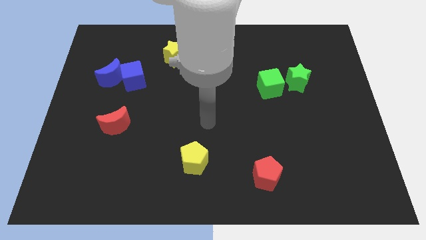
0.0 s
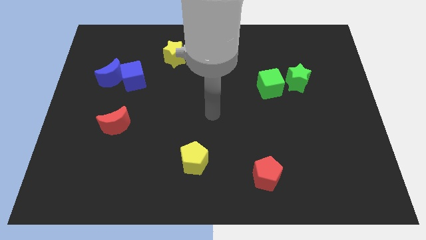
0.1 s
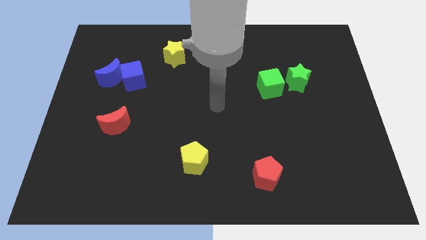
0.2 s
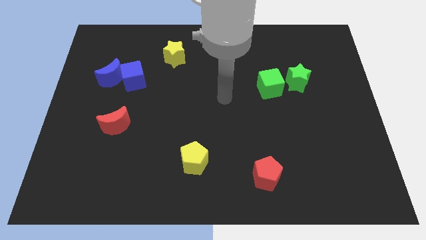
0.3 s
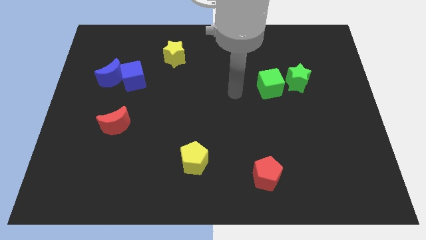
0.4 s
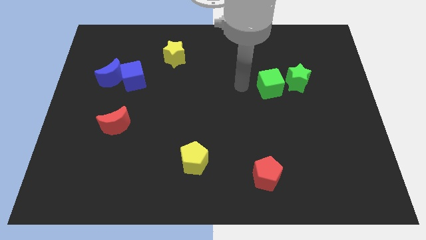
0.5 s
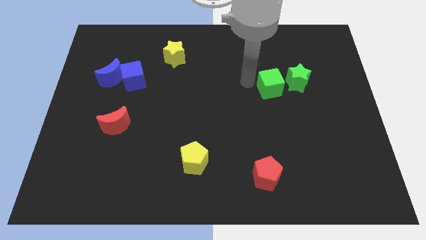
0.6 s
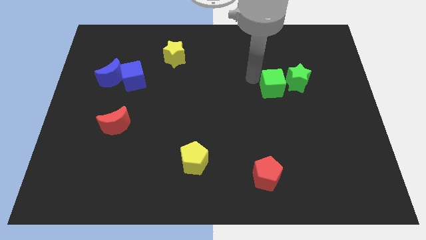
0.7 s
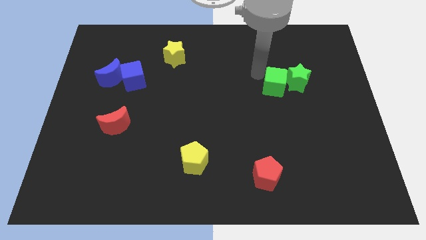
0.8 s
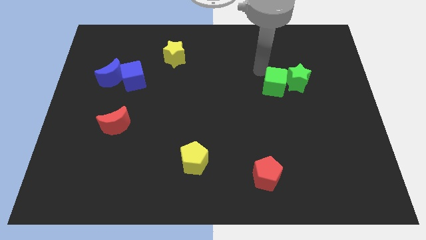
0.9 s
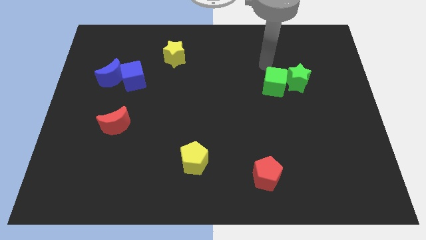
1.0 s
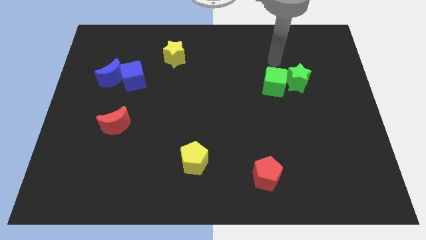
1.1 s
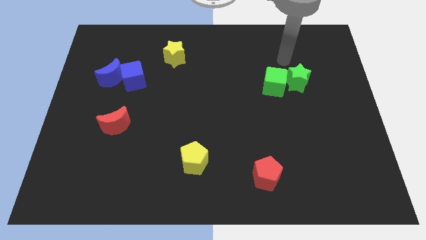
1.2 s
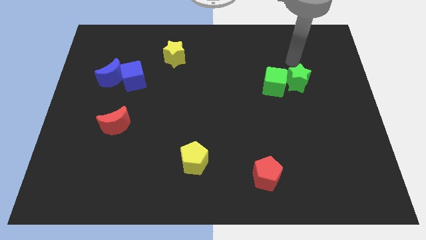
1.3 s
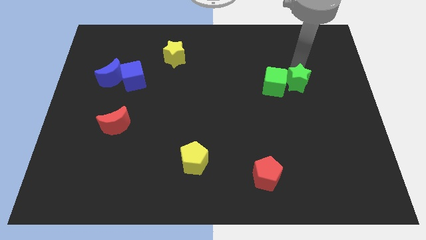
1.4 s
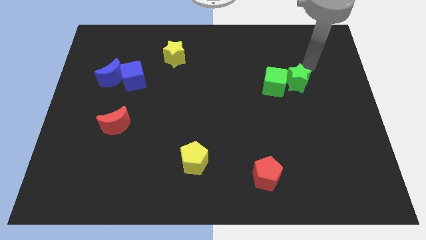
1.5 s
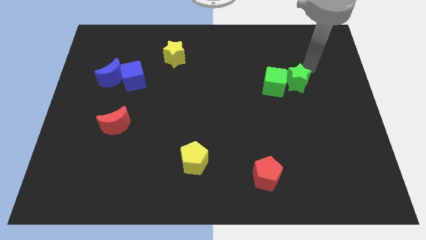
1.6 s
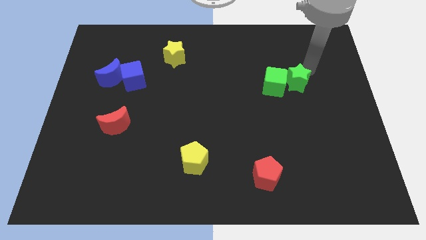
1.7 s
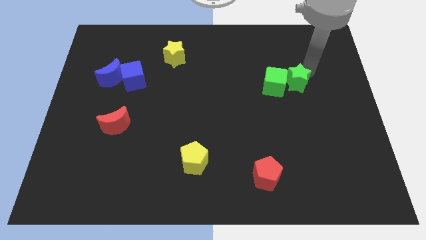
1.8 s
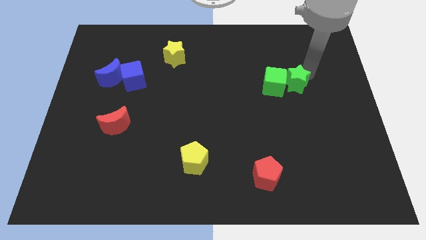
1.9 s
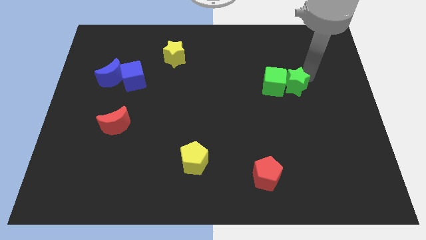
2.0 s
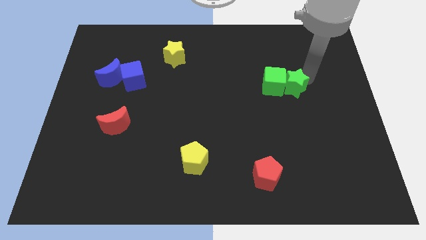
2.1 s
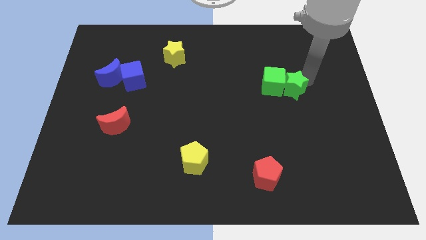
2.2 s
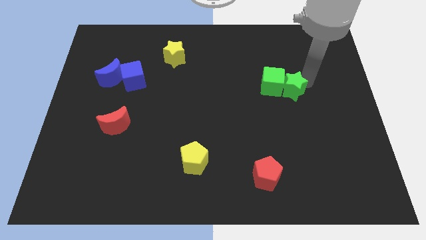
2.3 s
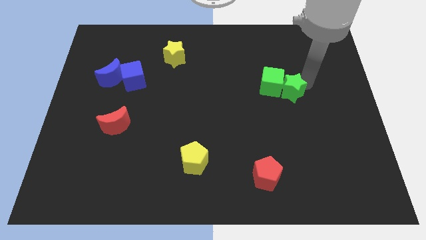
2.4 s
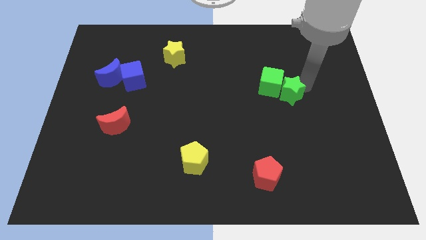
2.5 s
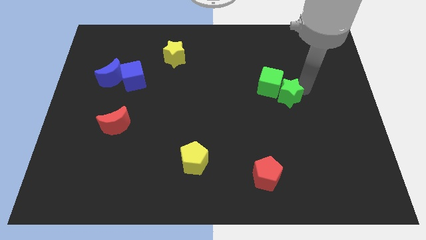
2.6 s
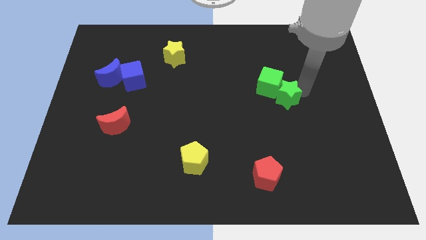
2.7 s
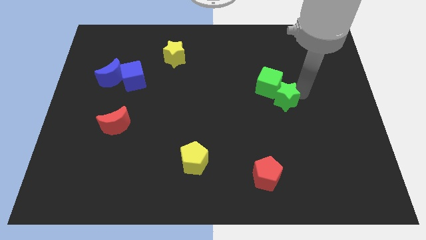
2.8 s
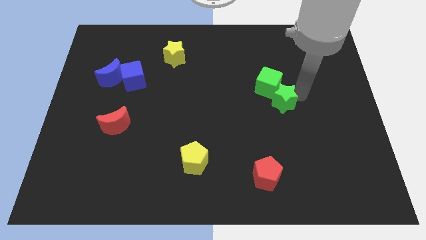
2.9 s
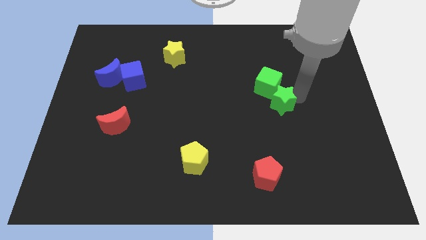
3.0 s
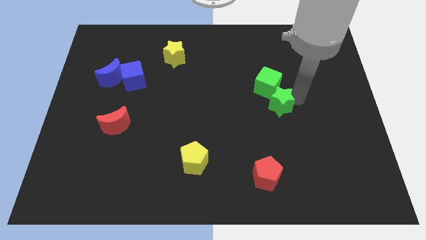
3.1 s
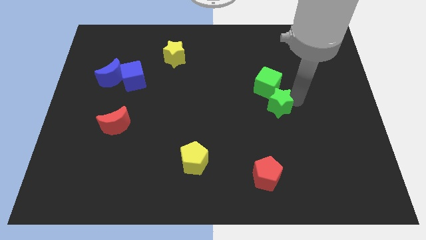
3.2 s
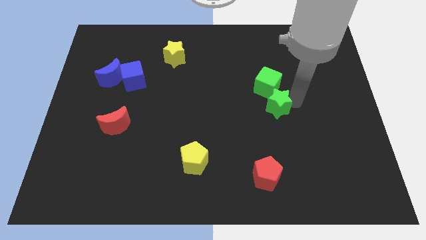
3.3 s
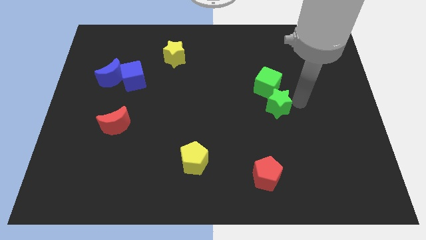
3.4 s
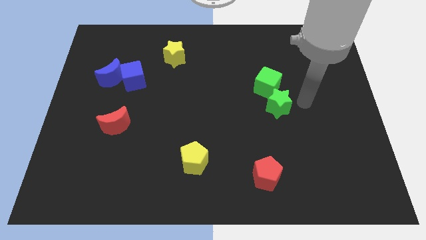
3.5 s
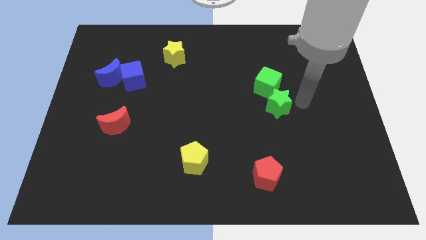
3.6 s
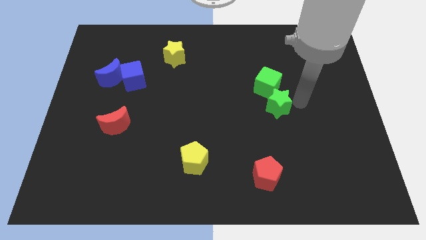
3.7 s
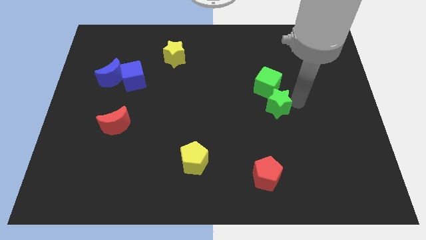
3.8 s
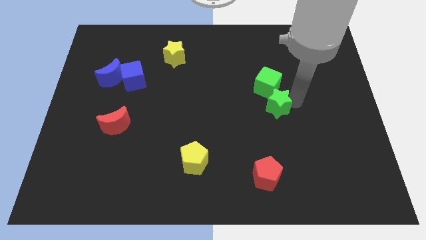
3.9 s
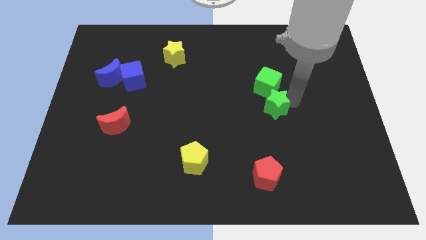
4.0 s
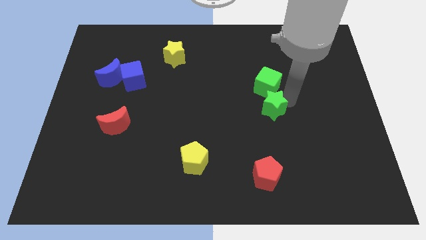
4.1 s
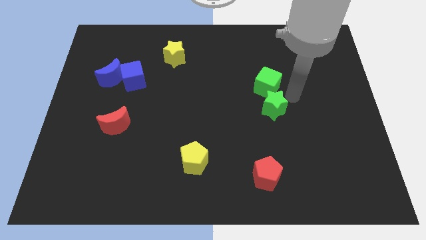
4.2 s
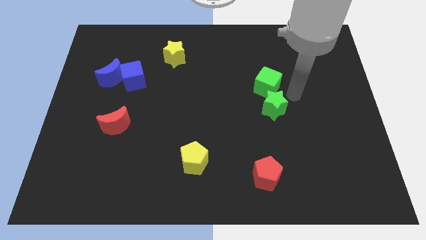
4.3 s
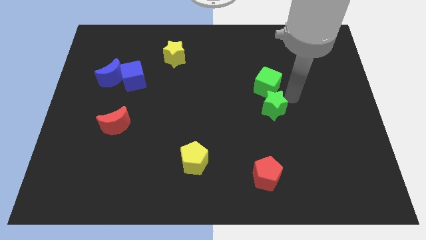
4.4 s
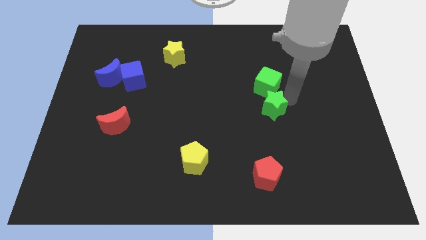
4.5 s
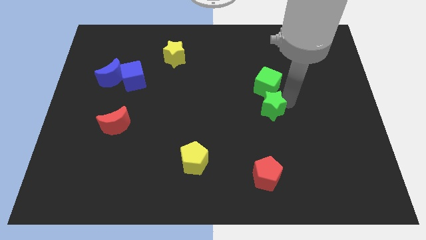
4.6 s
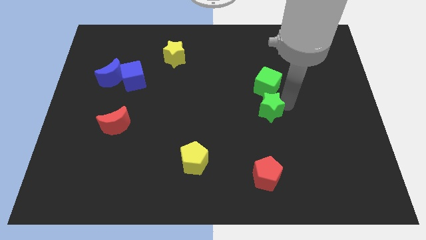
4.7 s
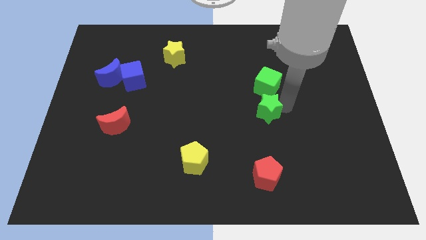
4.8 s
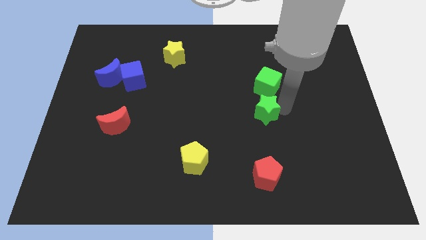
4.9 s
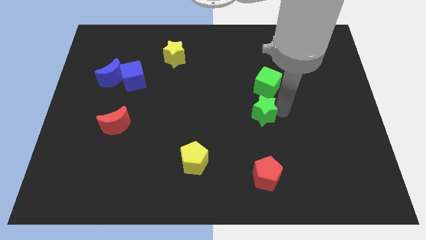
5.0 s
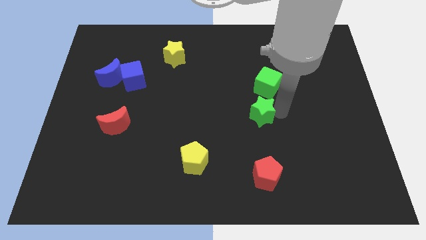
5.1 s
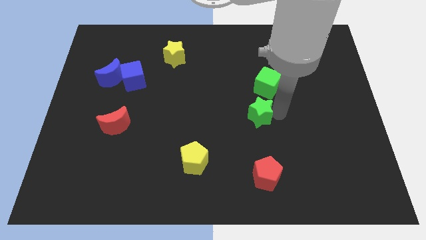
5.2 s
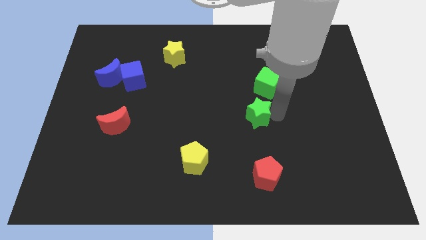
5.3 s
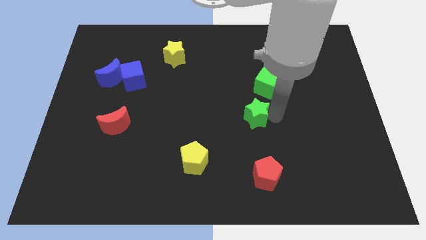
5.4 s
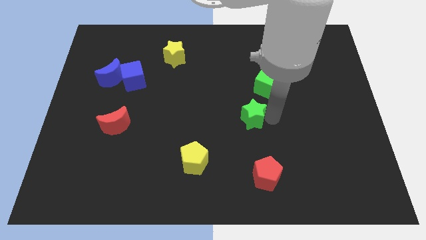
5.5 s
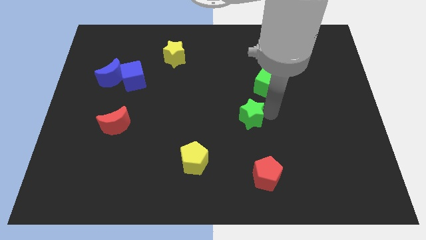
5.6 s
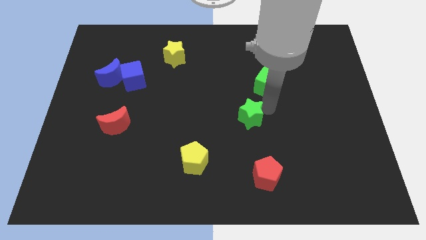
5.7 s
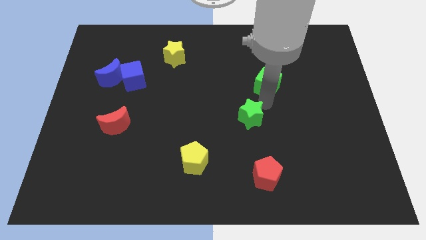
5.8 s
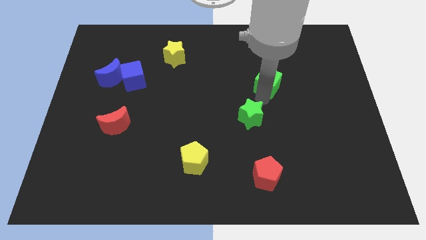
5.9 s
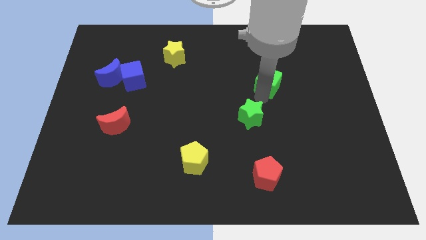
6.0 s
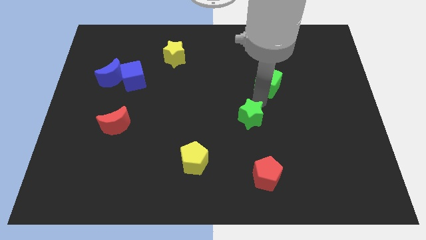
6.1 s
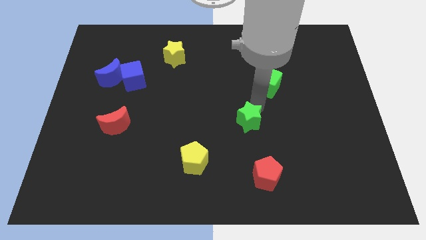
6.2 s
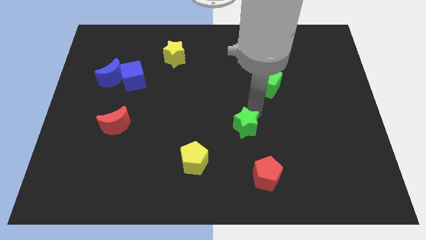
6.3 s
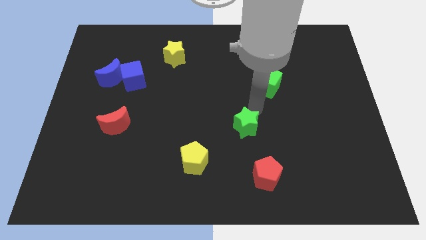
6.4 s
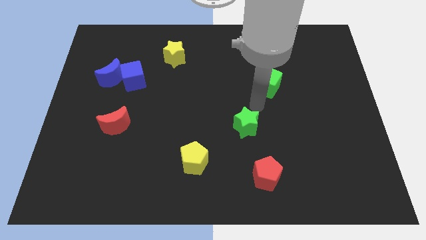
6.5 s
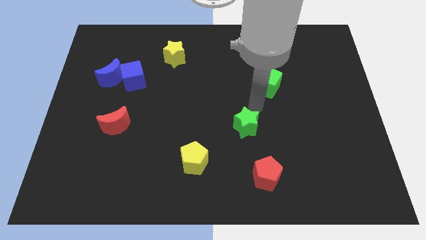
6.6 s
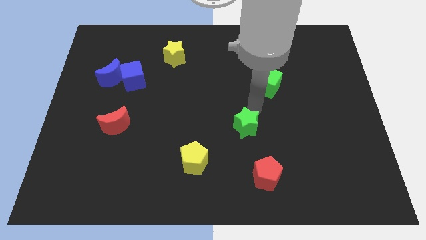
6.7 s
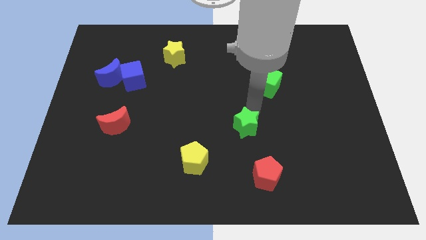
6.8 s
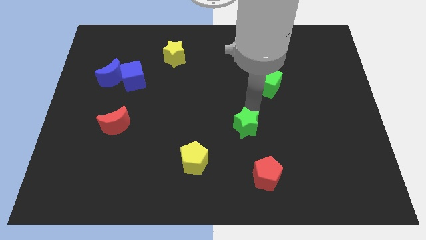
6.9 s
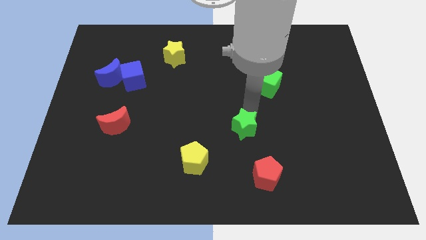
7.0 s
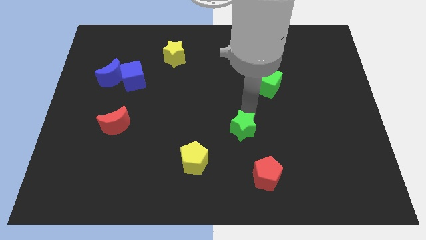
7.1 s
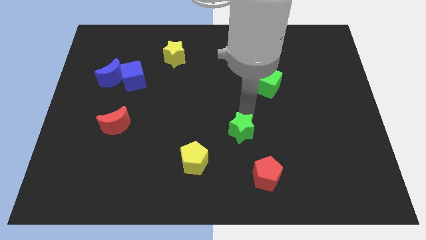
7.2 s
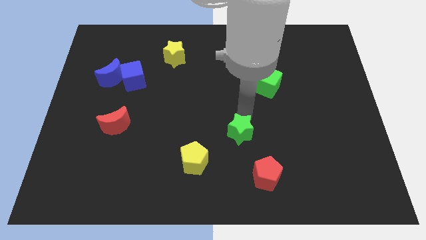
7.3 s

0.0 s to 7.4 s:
push the green star to the top right of the yellow pentagon
